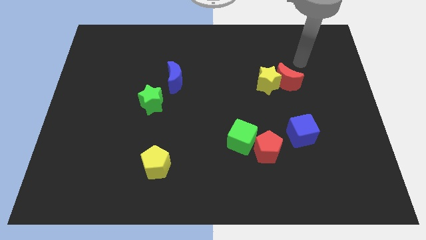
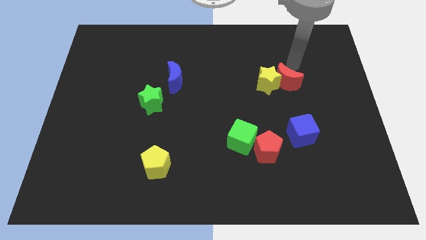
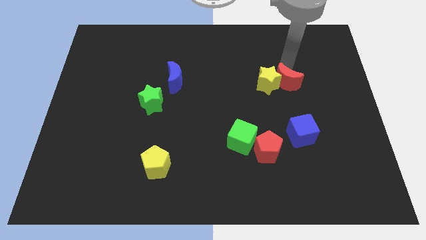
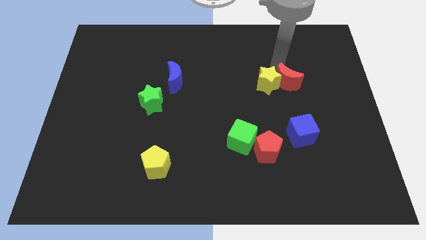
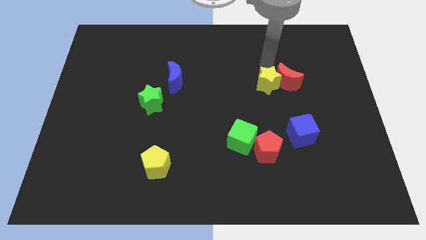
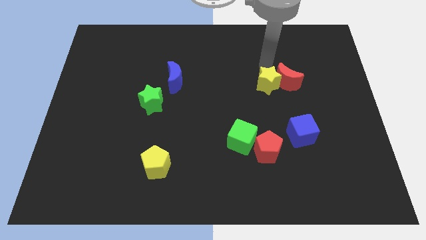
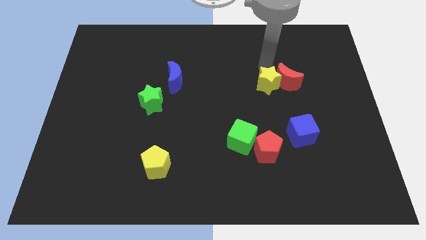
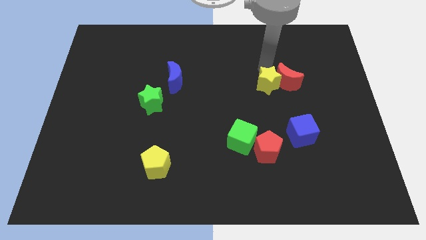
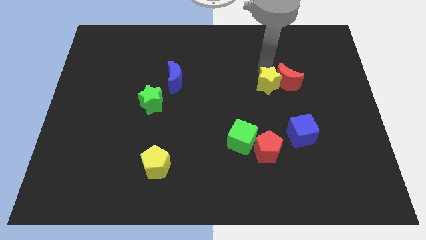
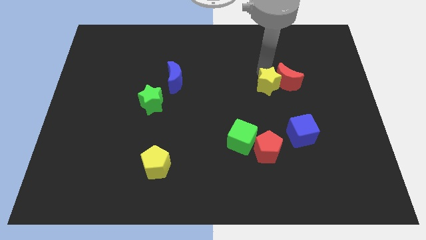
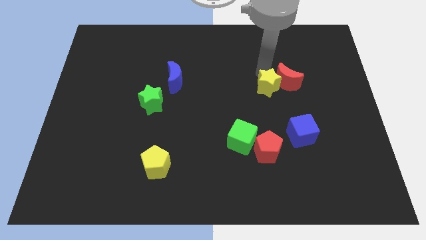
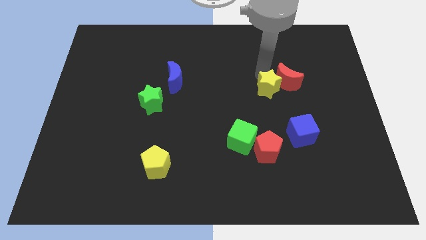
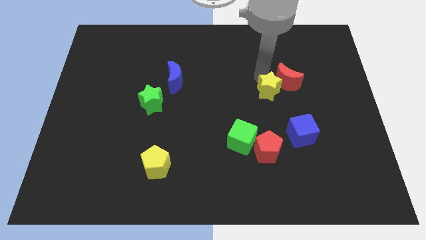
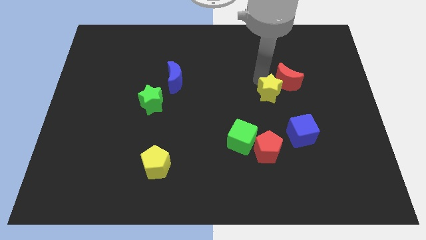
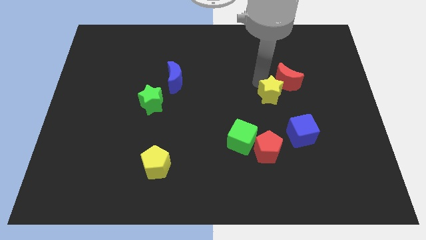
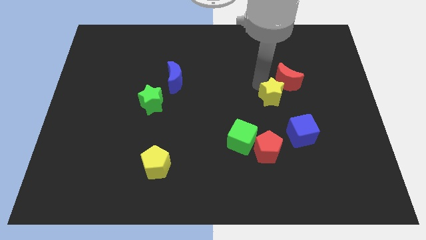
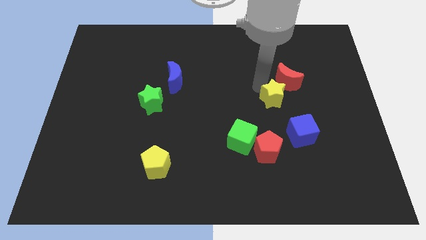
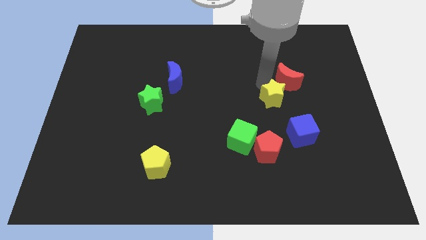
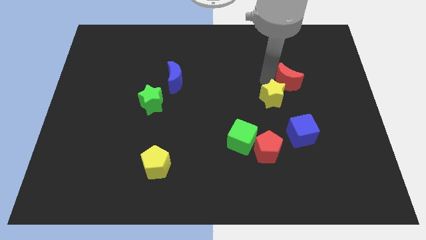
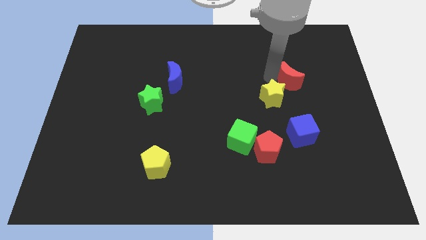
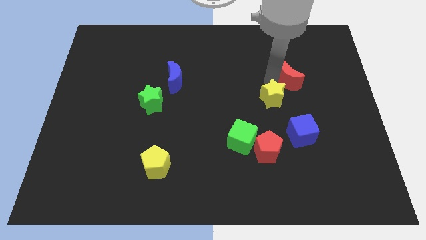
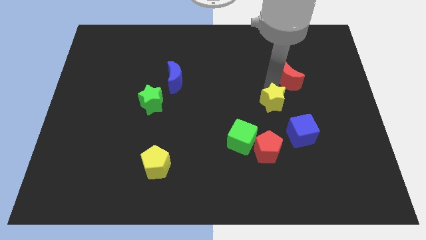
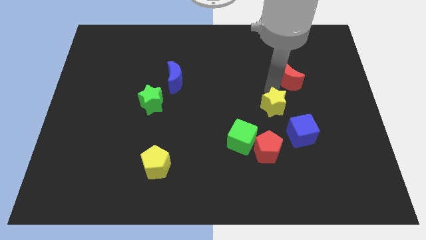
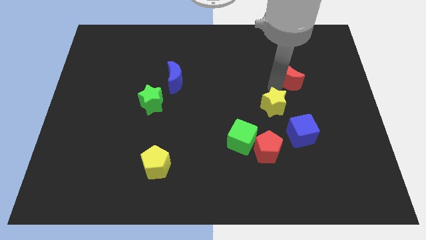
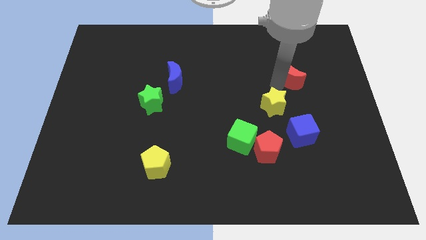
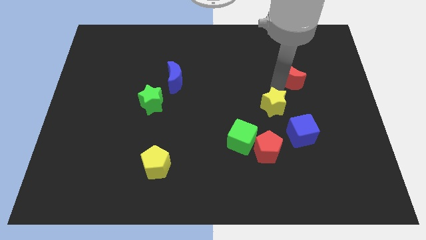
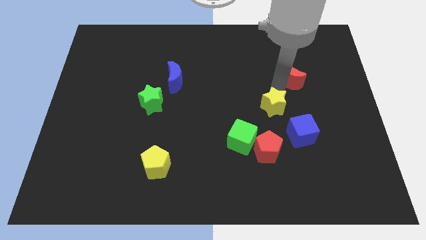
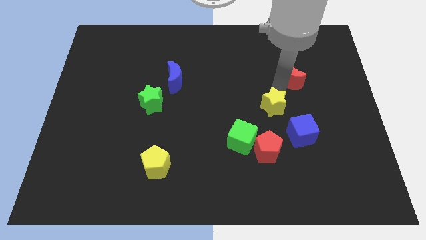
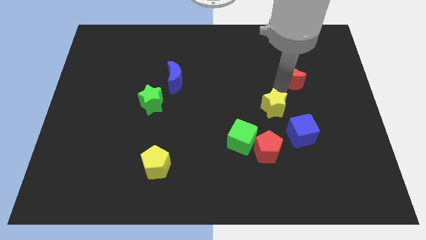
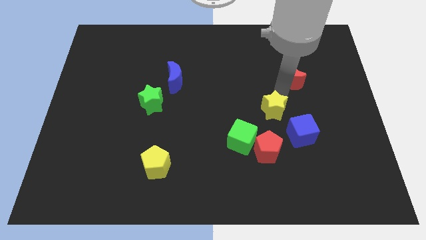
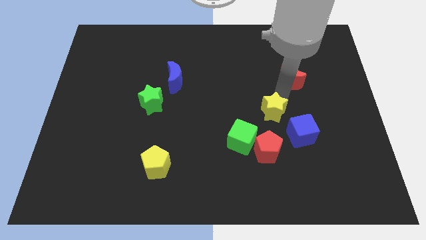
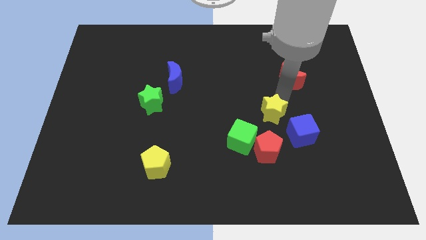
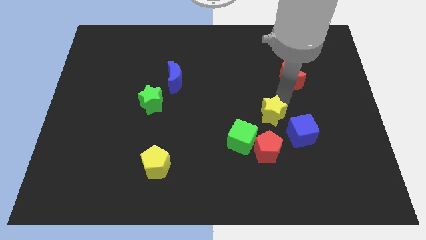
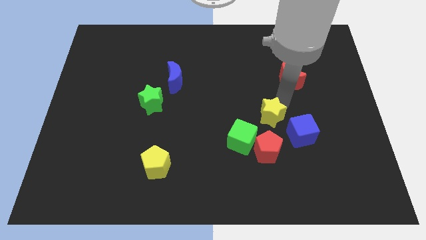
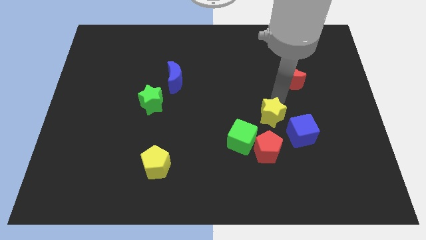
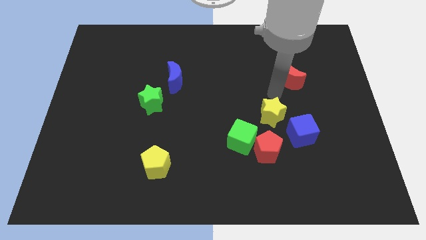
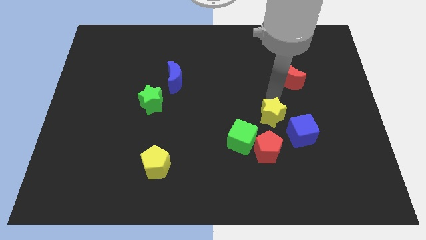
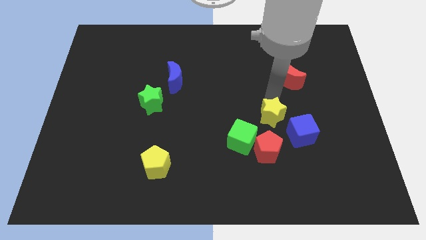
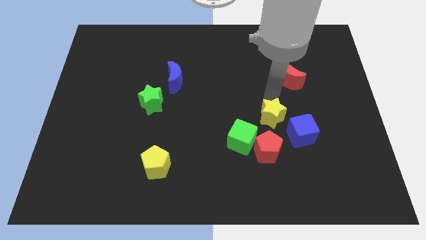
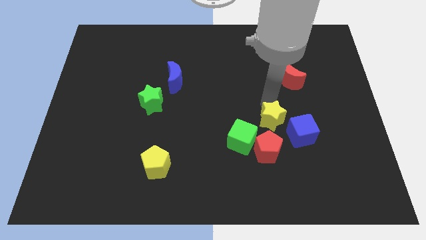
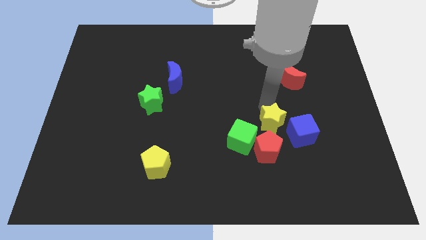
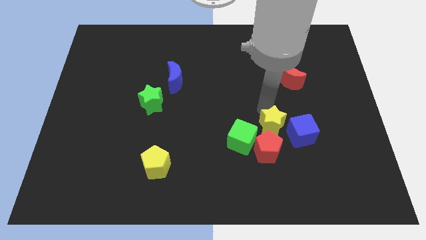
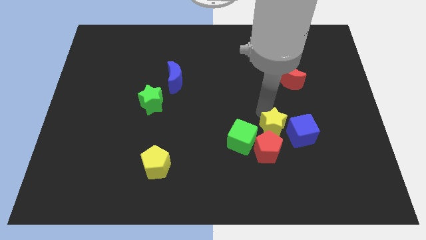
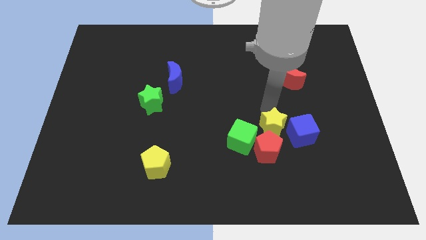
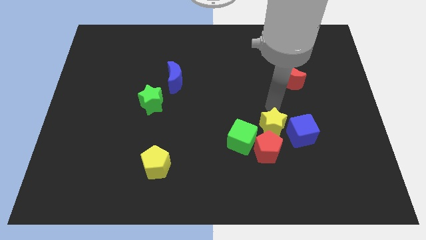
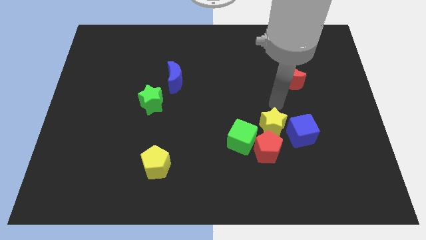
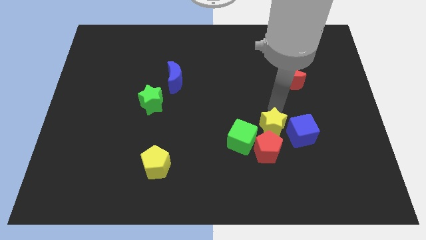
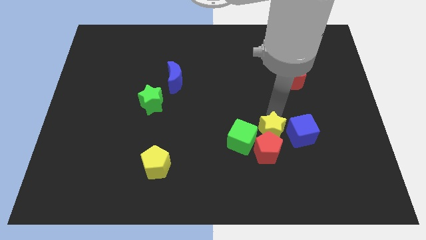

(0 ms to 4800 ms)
slide the yellow star next to the red pentagon

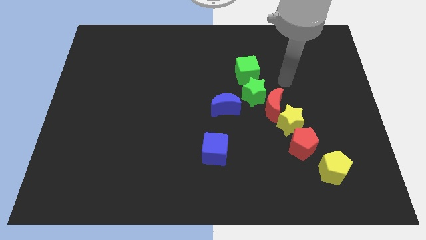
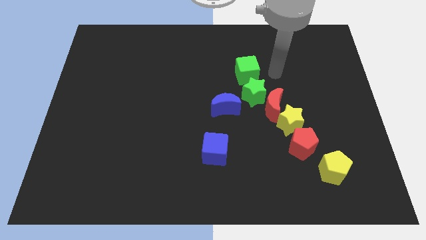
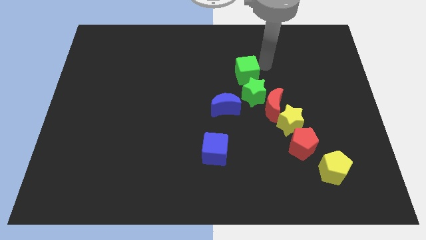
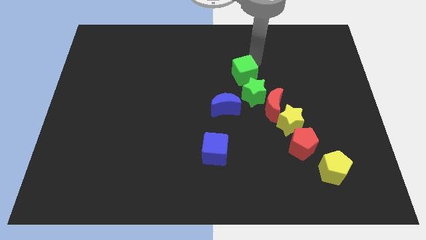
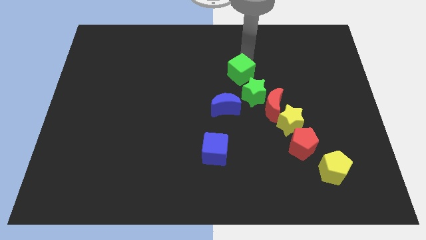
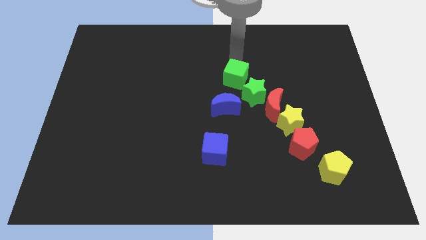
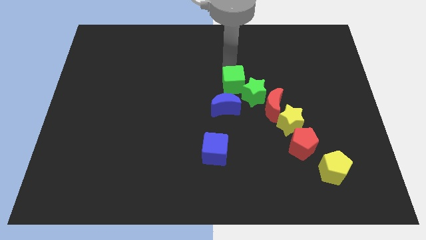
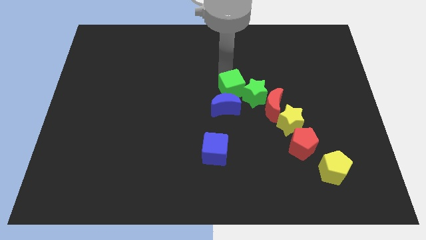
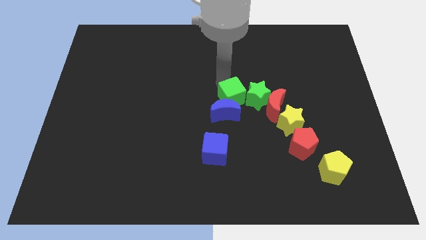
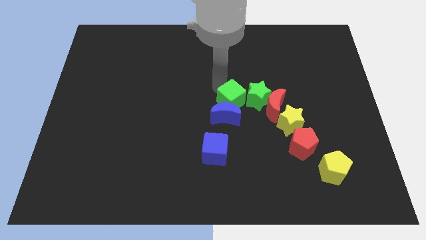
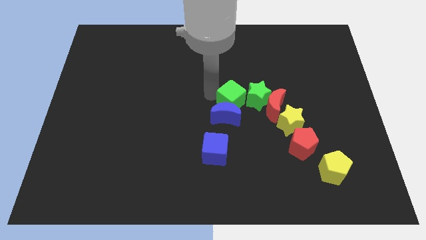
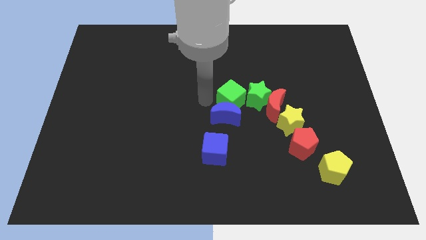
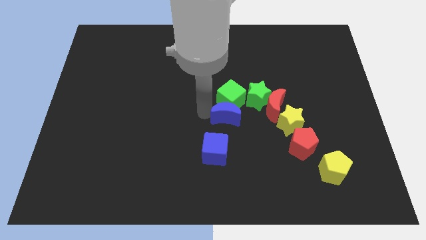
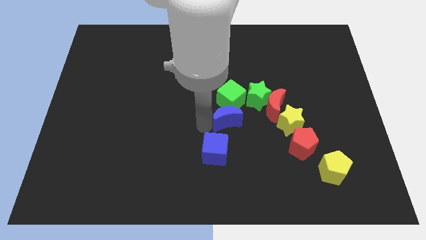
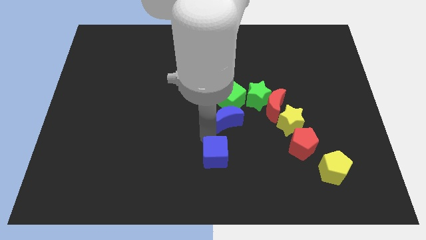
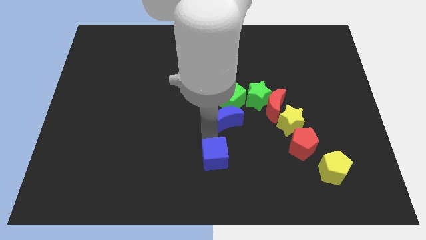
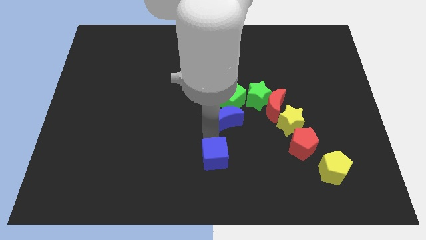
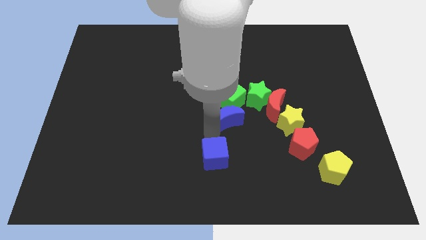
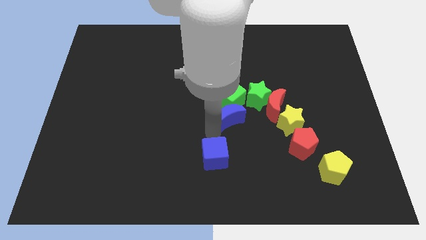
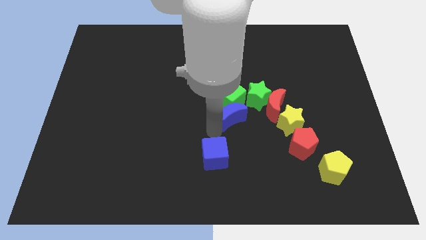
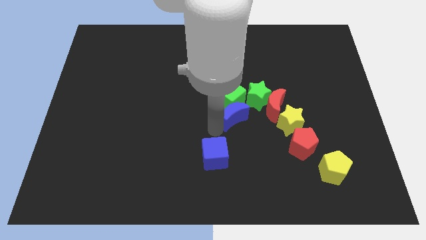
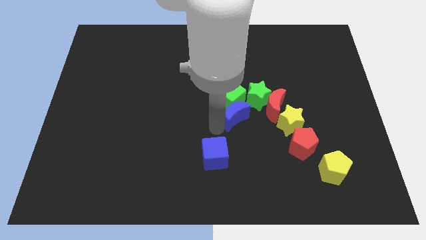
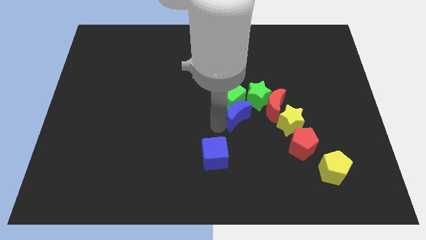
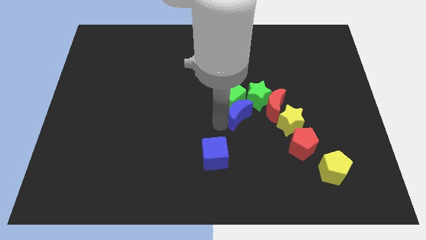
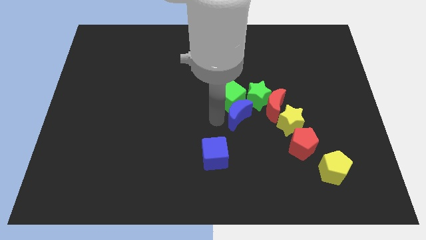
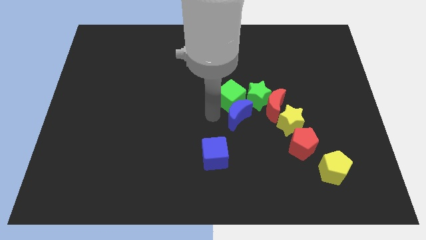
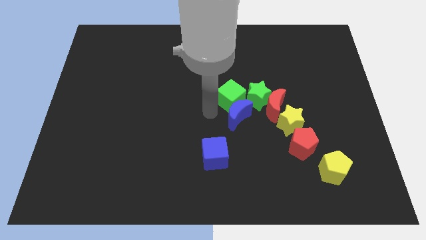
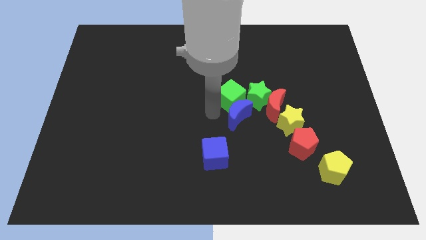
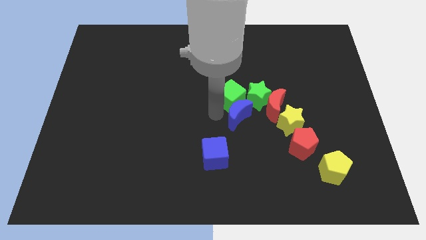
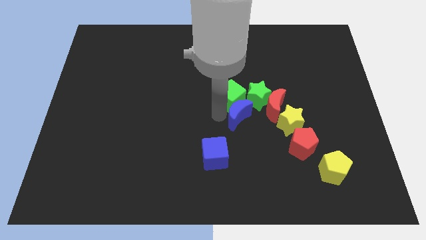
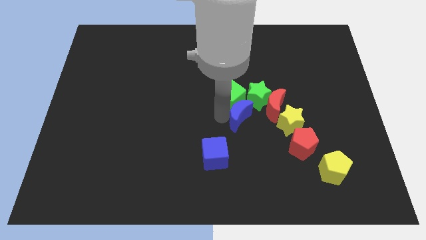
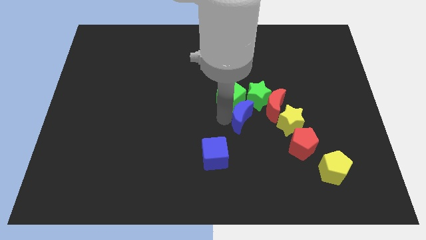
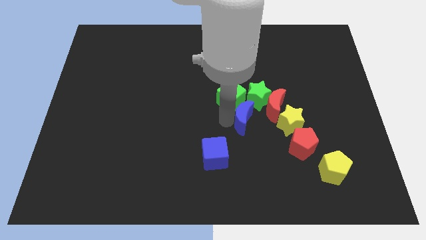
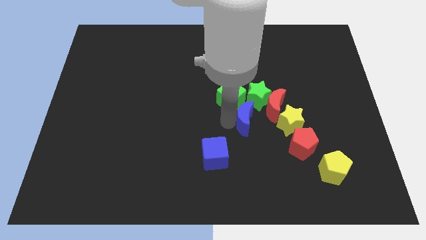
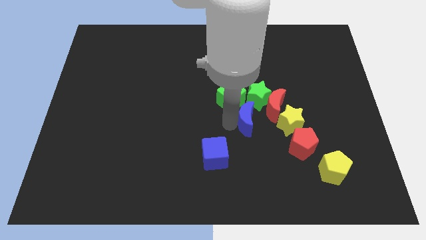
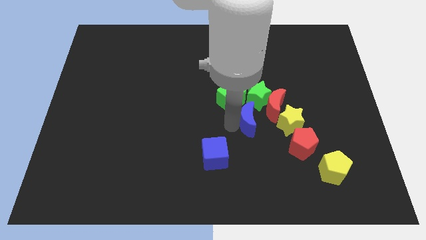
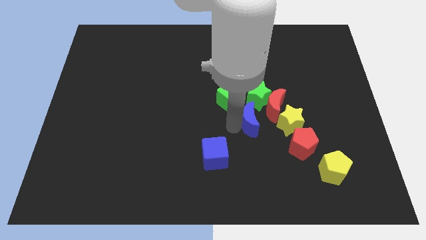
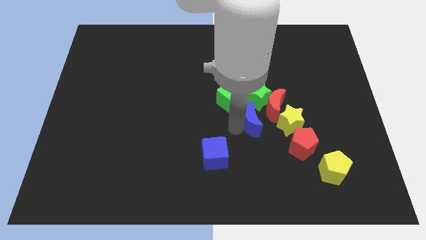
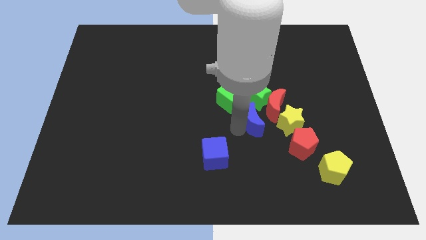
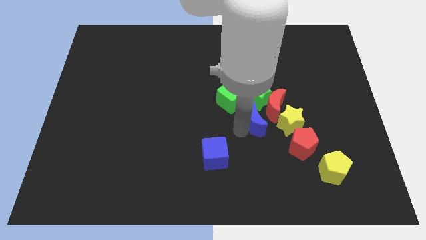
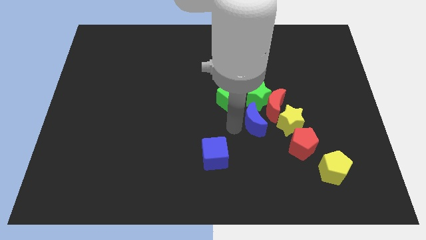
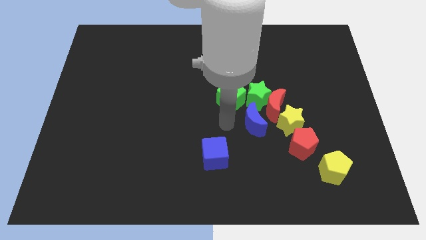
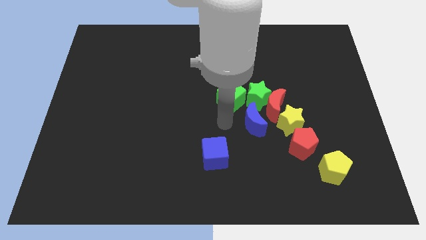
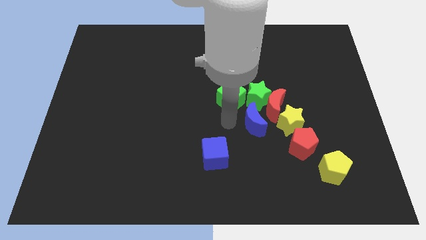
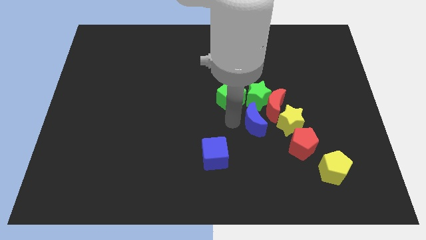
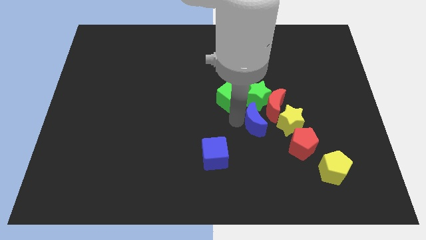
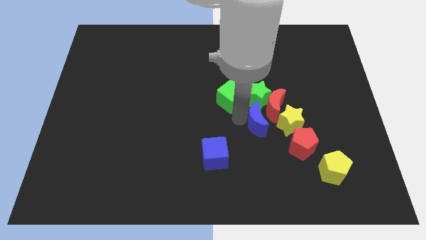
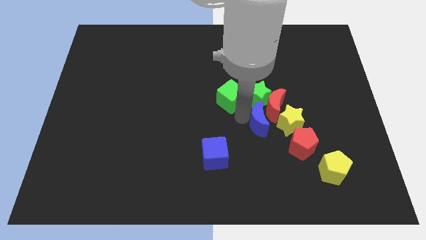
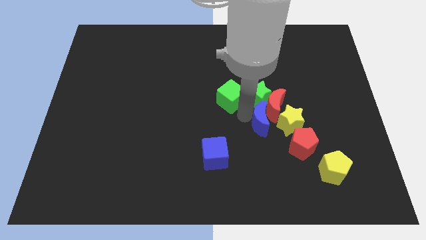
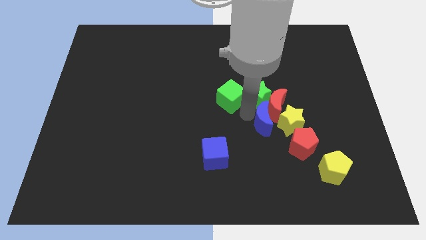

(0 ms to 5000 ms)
slide the blue moon next to the yellow star
